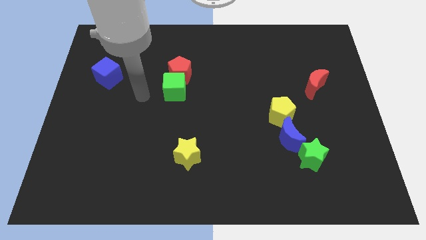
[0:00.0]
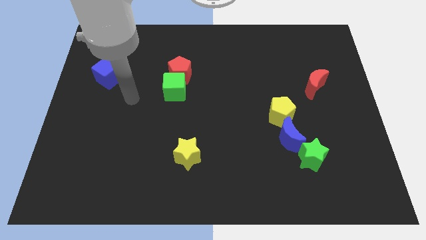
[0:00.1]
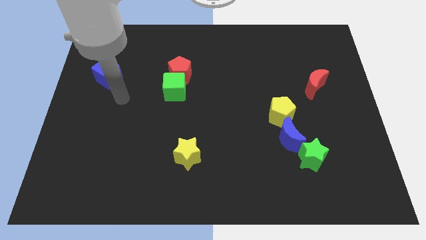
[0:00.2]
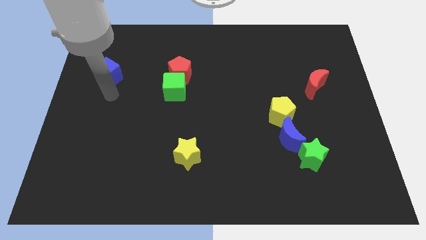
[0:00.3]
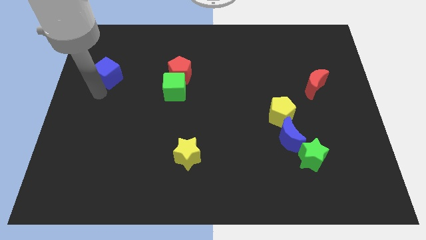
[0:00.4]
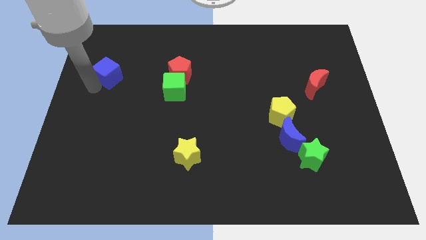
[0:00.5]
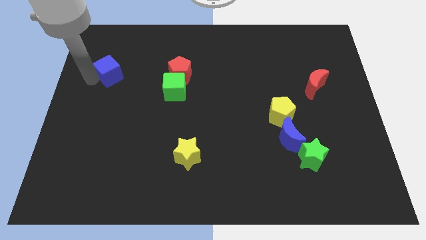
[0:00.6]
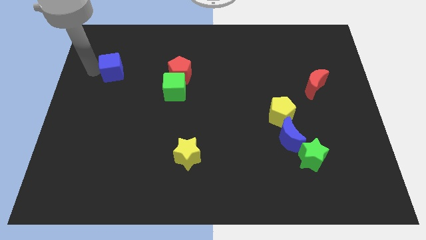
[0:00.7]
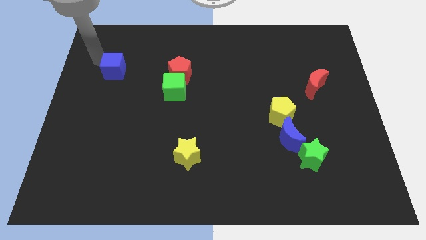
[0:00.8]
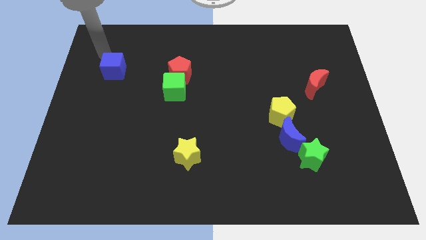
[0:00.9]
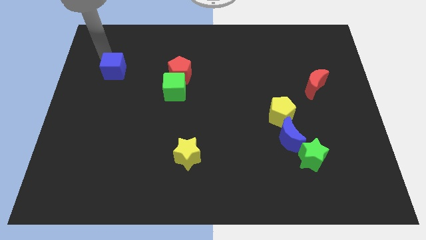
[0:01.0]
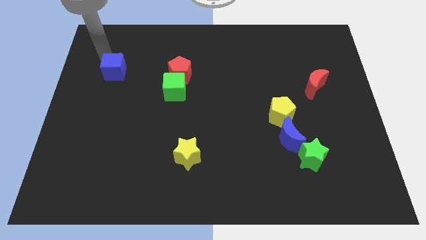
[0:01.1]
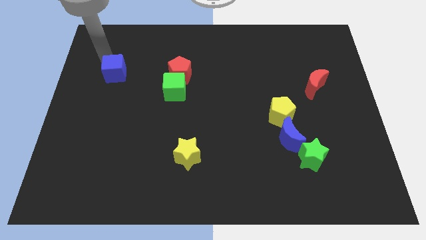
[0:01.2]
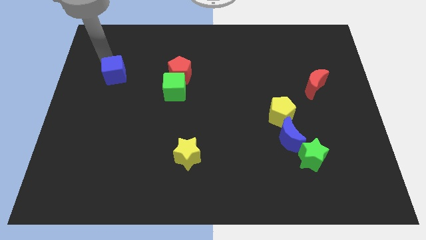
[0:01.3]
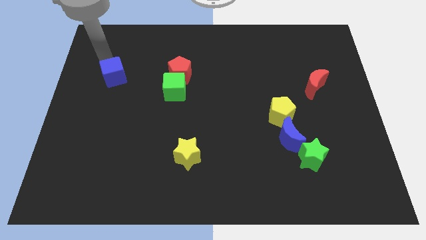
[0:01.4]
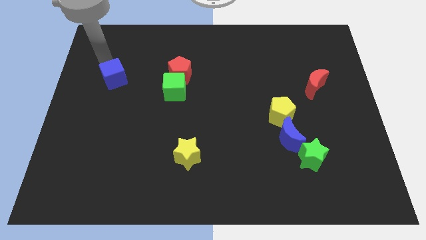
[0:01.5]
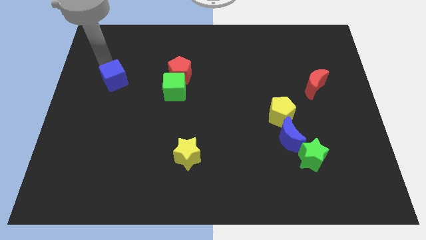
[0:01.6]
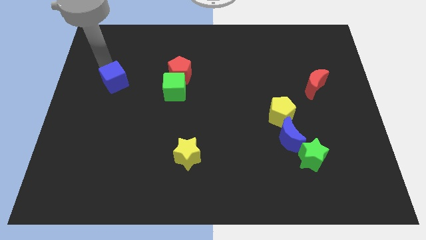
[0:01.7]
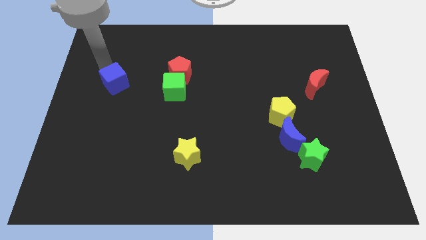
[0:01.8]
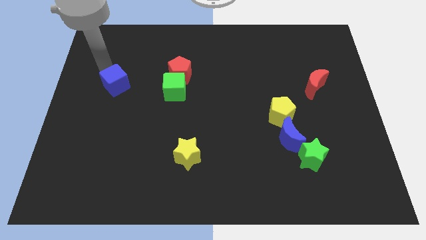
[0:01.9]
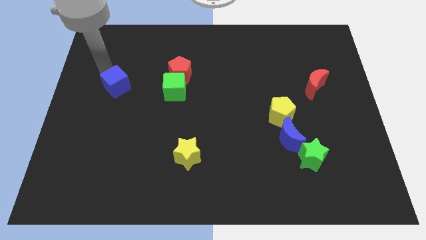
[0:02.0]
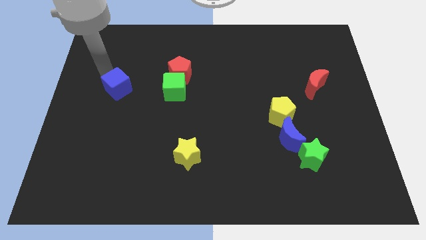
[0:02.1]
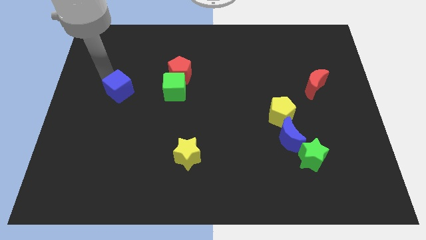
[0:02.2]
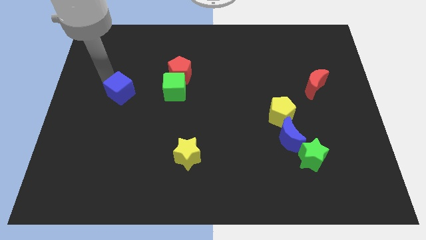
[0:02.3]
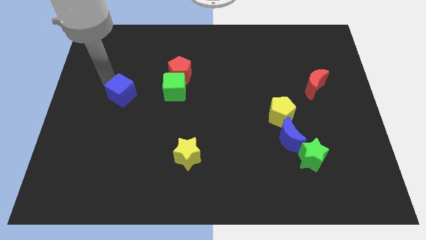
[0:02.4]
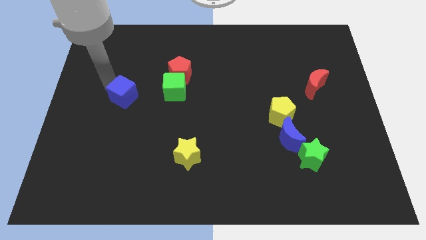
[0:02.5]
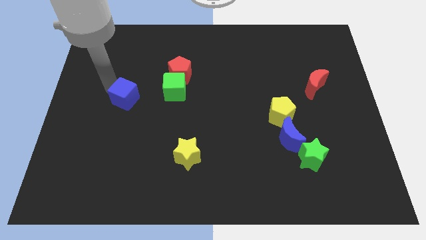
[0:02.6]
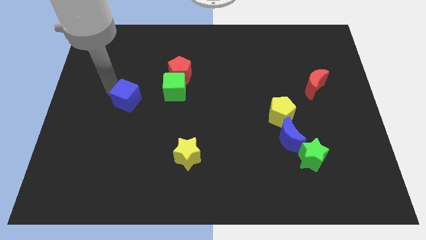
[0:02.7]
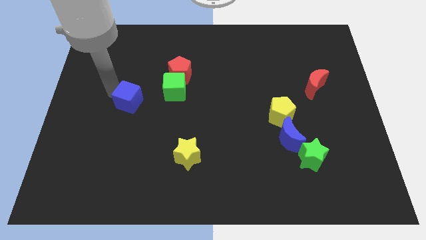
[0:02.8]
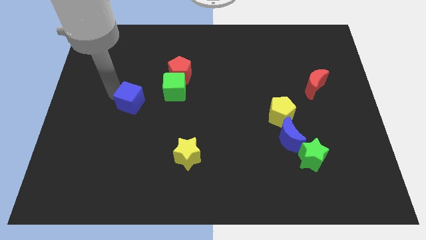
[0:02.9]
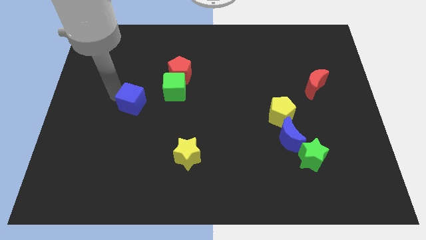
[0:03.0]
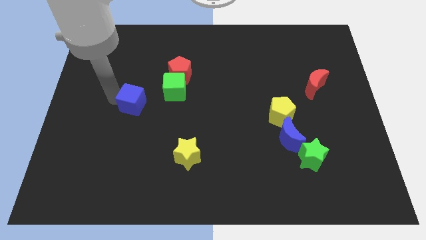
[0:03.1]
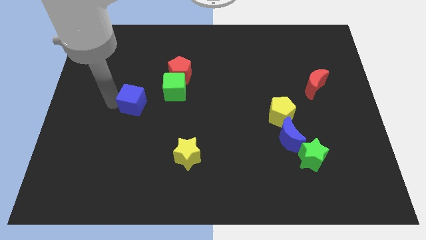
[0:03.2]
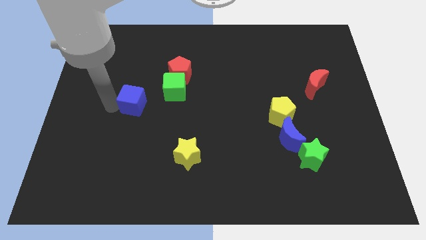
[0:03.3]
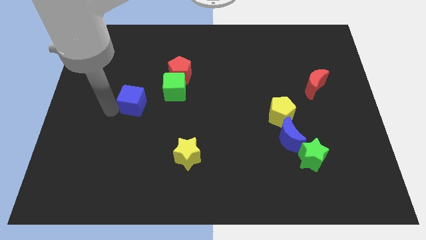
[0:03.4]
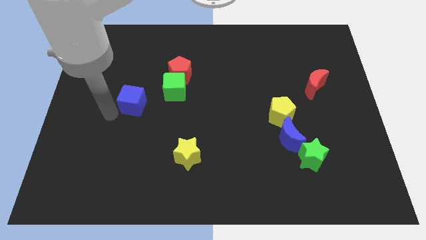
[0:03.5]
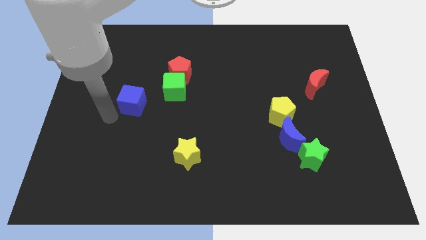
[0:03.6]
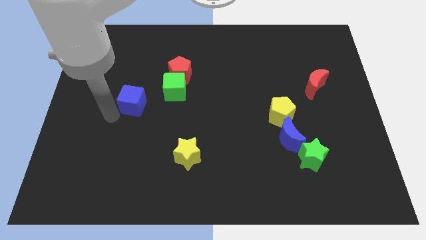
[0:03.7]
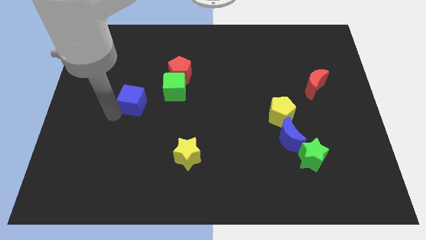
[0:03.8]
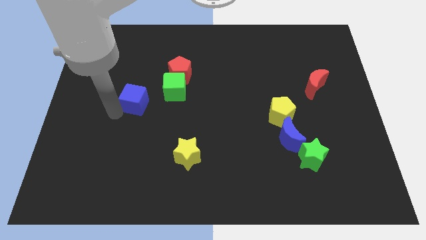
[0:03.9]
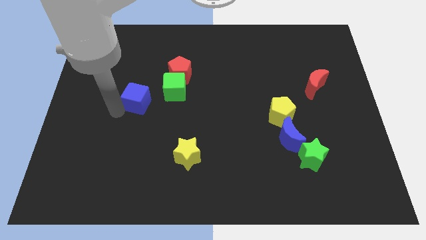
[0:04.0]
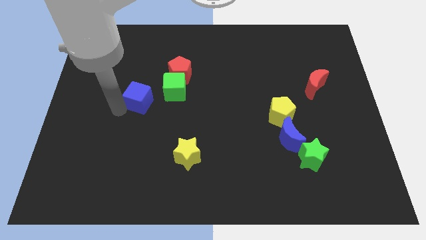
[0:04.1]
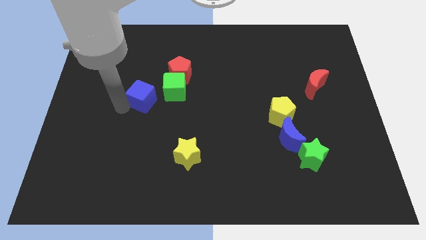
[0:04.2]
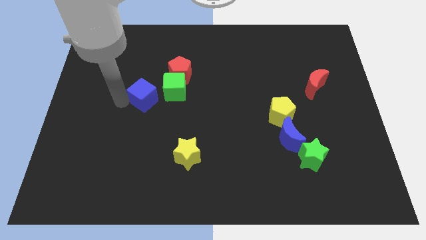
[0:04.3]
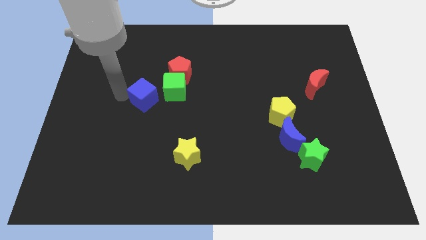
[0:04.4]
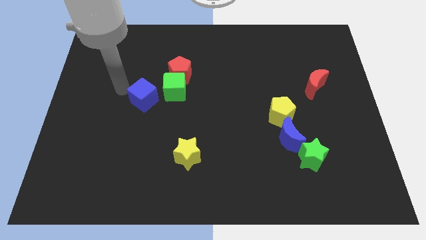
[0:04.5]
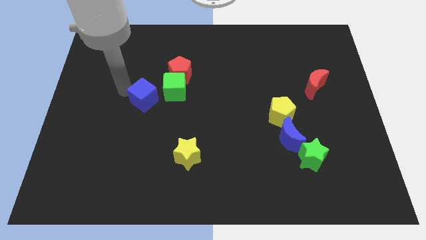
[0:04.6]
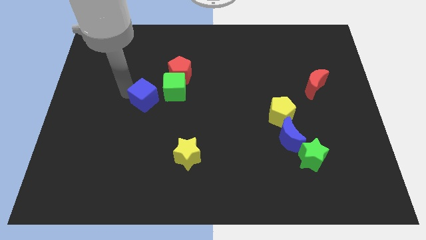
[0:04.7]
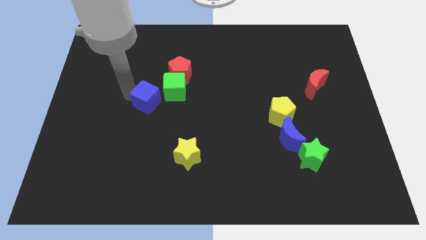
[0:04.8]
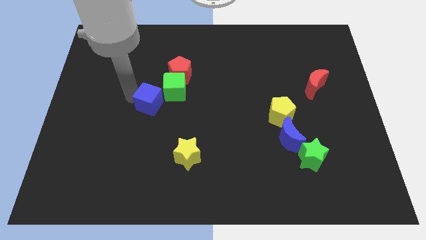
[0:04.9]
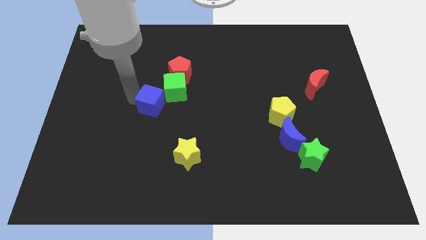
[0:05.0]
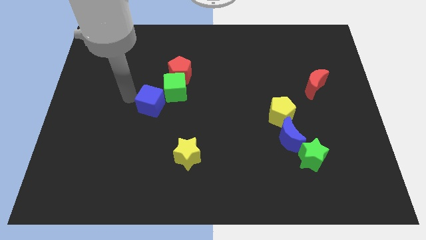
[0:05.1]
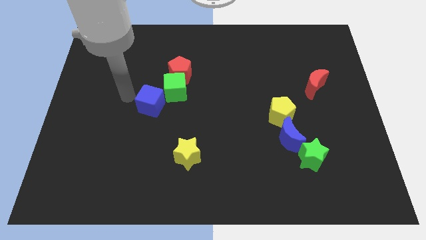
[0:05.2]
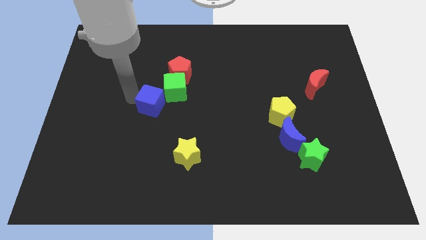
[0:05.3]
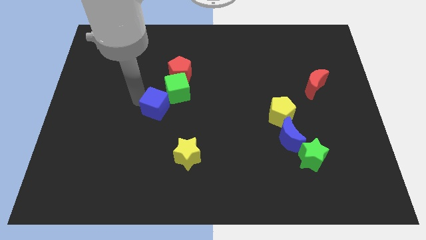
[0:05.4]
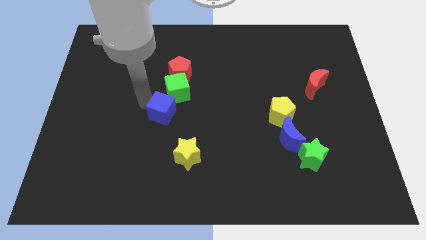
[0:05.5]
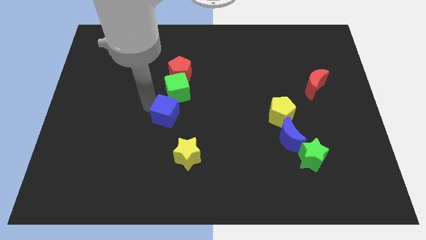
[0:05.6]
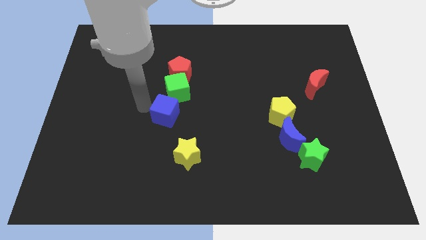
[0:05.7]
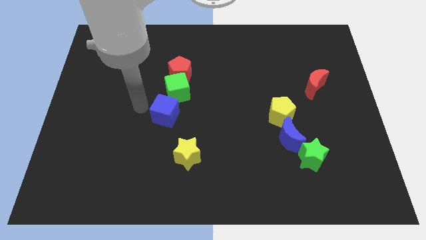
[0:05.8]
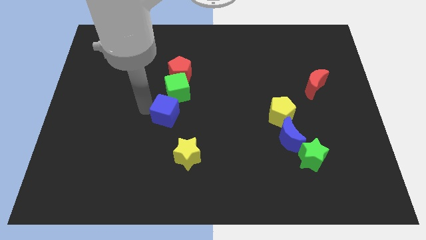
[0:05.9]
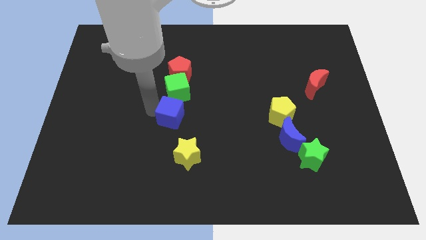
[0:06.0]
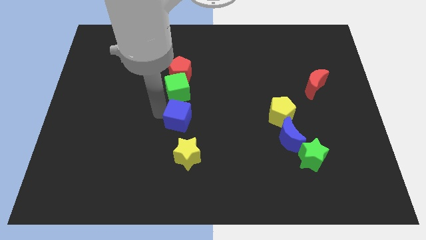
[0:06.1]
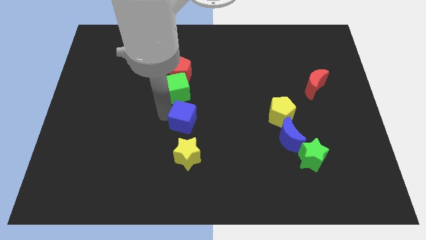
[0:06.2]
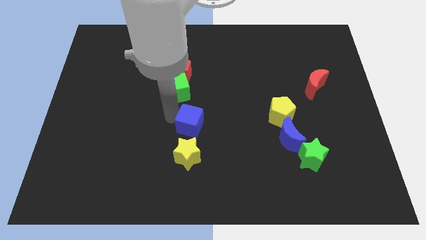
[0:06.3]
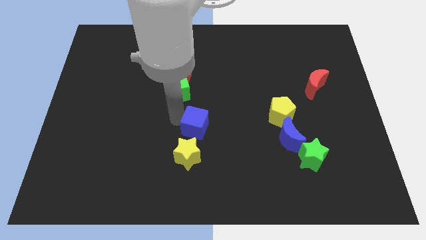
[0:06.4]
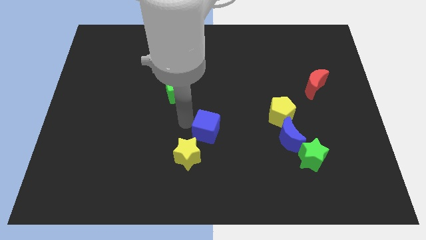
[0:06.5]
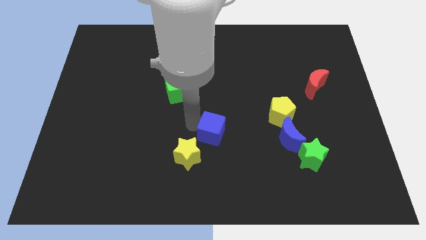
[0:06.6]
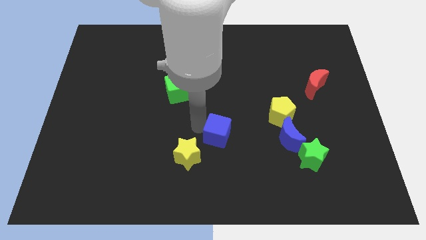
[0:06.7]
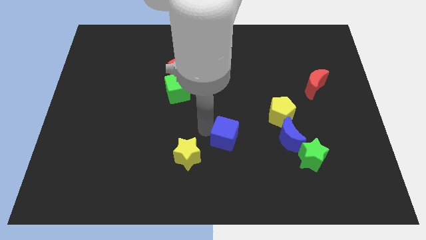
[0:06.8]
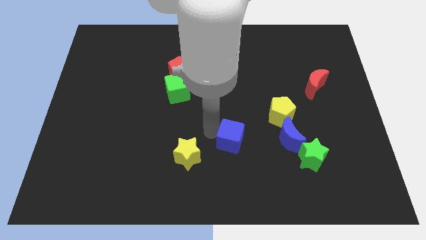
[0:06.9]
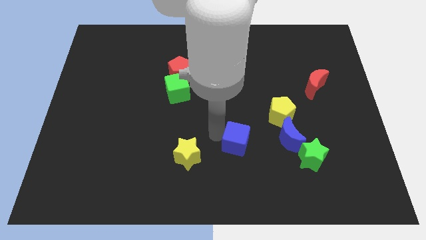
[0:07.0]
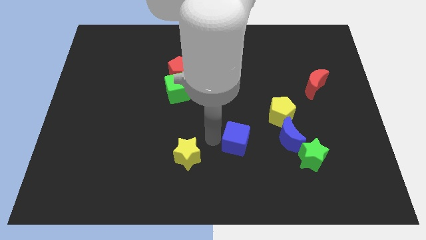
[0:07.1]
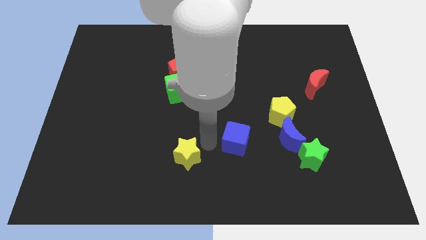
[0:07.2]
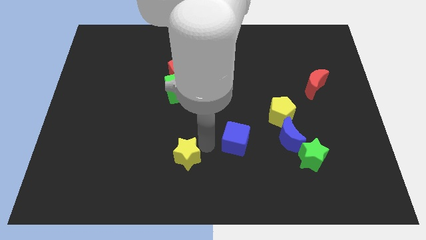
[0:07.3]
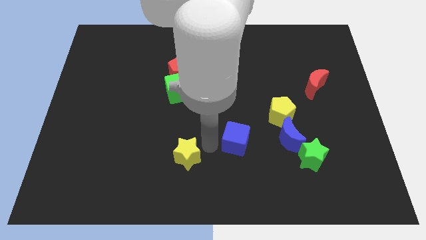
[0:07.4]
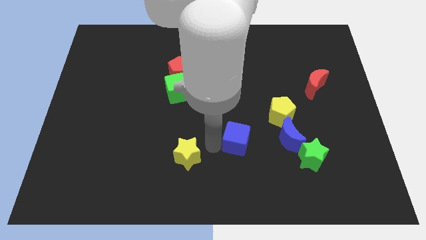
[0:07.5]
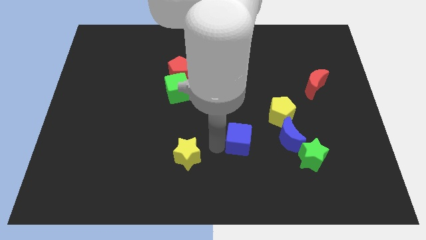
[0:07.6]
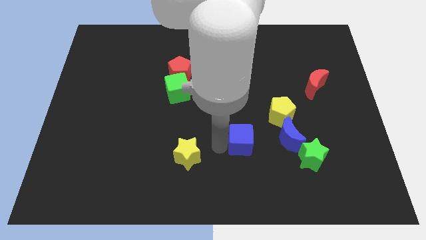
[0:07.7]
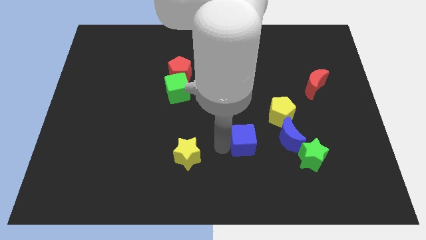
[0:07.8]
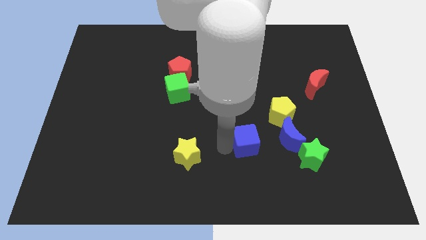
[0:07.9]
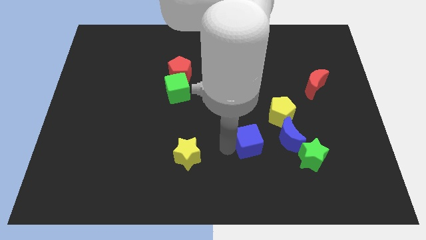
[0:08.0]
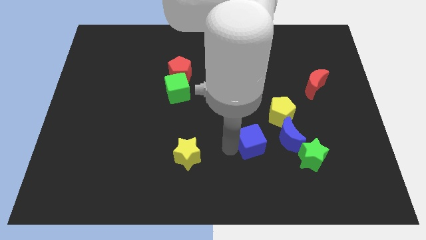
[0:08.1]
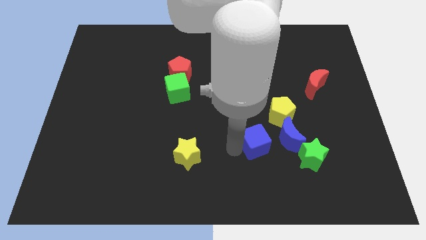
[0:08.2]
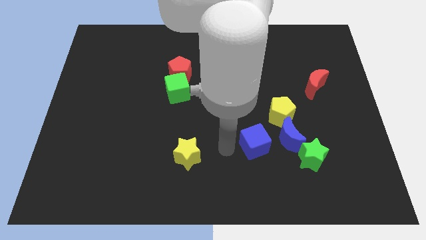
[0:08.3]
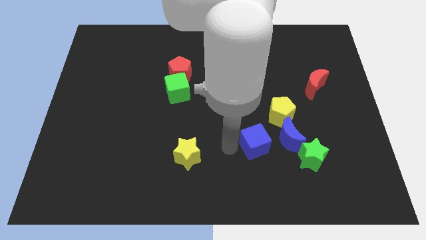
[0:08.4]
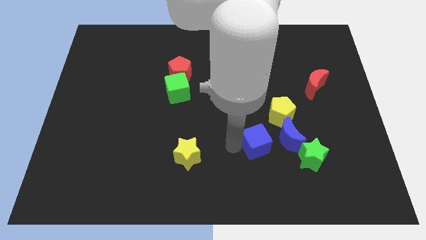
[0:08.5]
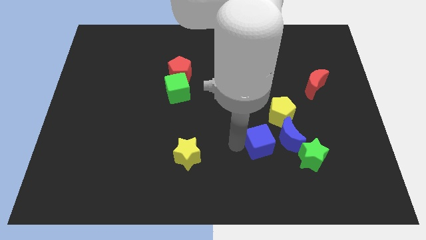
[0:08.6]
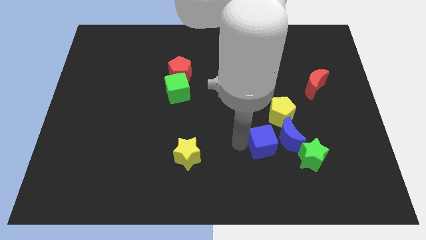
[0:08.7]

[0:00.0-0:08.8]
slide the blue cube towards the blue moon
